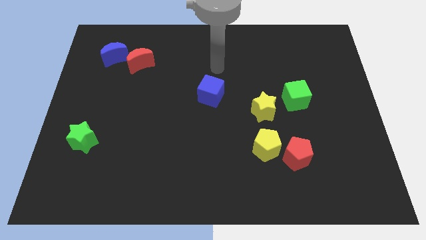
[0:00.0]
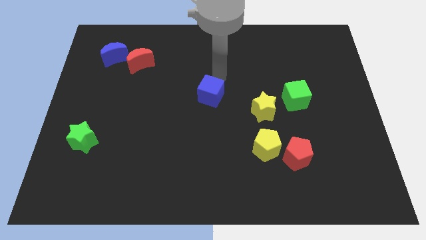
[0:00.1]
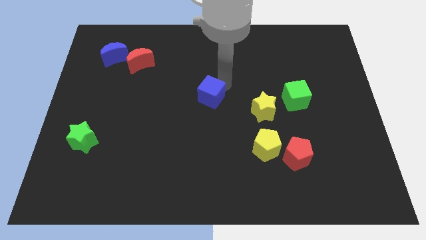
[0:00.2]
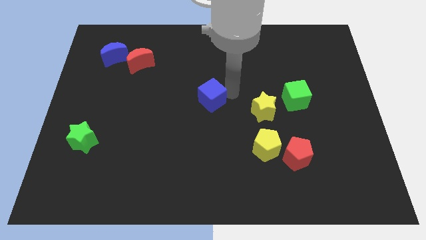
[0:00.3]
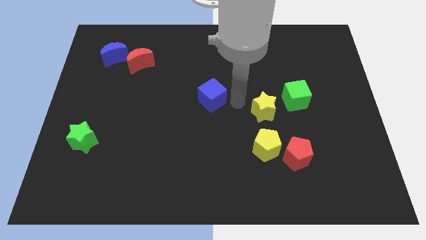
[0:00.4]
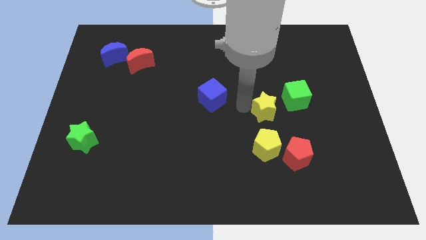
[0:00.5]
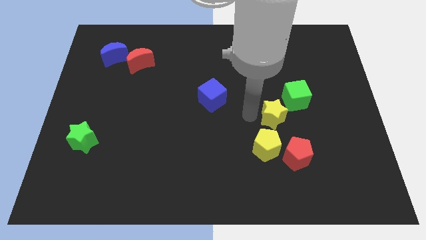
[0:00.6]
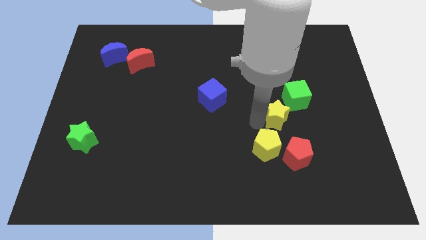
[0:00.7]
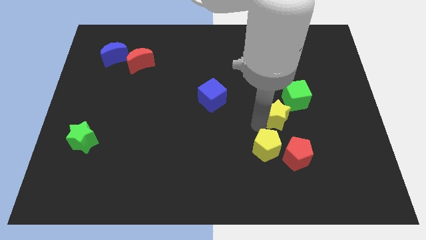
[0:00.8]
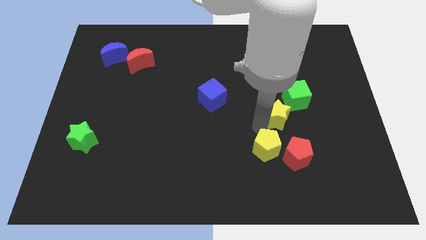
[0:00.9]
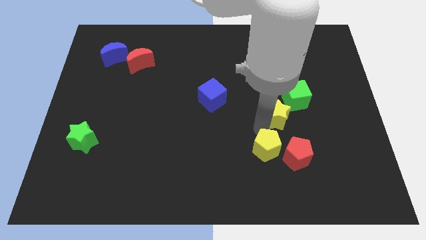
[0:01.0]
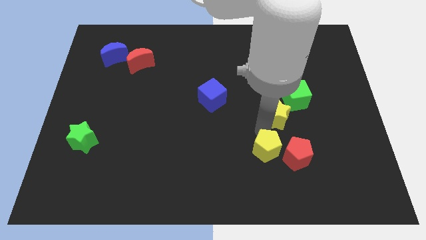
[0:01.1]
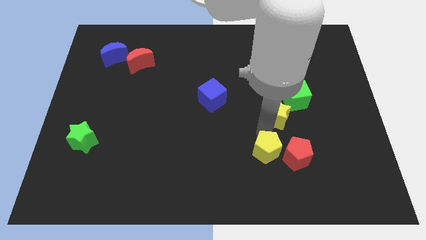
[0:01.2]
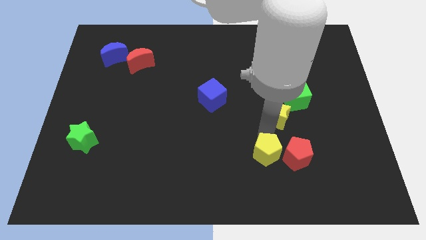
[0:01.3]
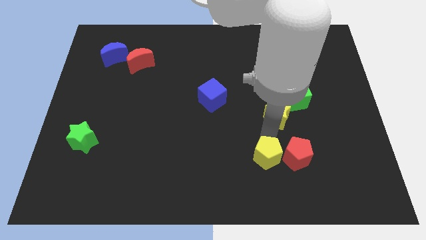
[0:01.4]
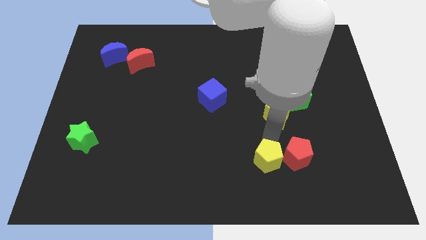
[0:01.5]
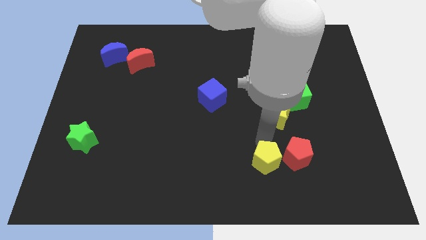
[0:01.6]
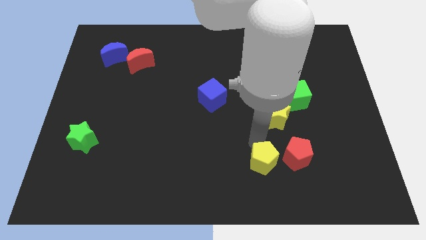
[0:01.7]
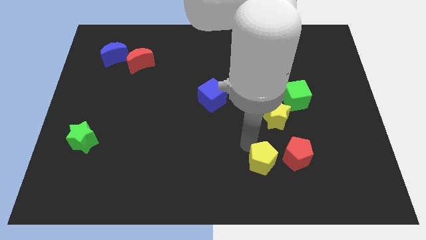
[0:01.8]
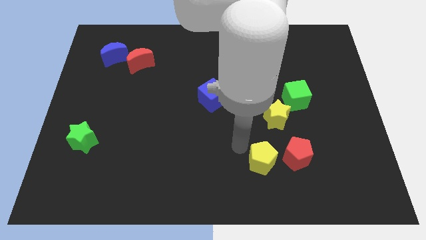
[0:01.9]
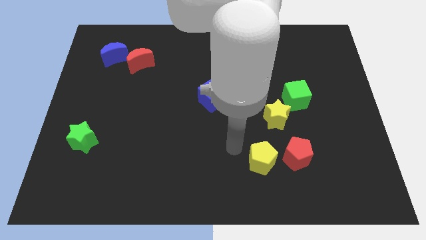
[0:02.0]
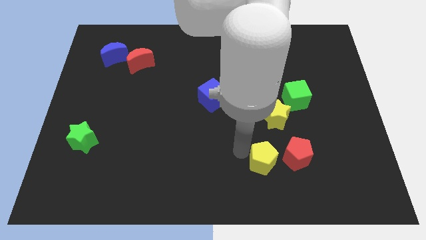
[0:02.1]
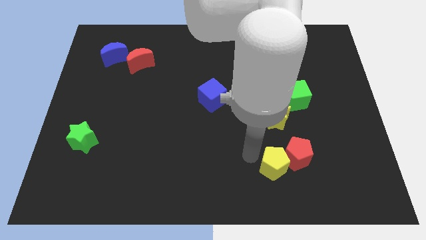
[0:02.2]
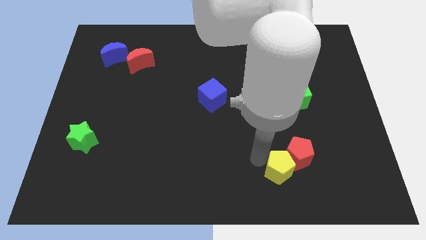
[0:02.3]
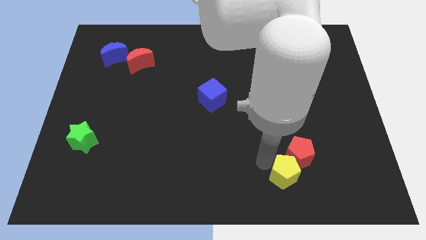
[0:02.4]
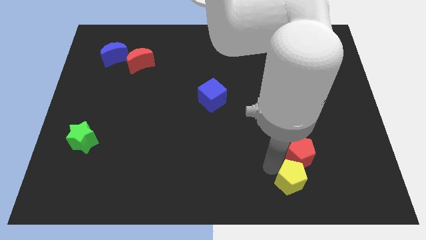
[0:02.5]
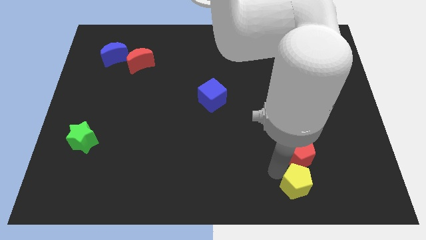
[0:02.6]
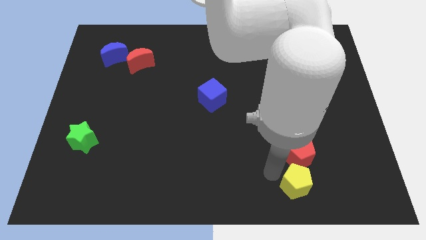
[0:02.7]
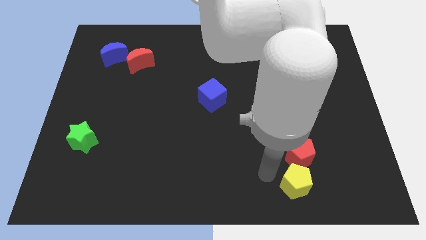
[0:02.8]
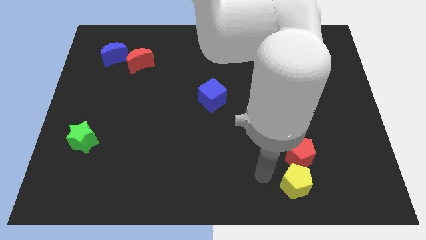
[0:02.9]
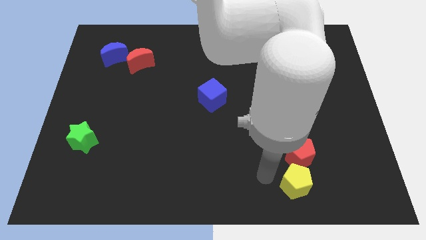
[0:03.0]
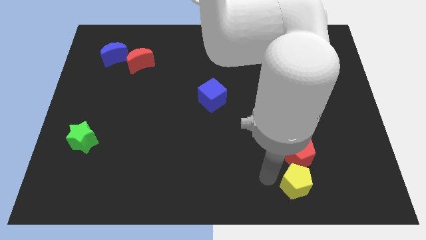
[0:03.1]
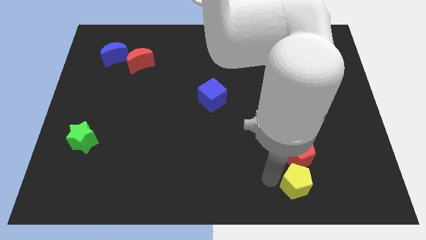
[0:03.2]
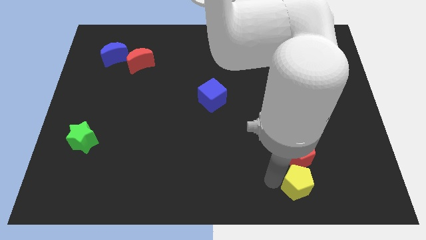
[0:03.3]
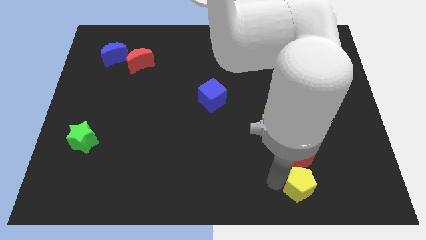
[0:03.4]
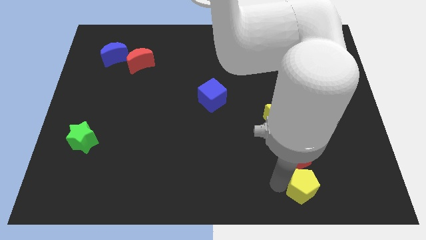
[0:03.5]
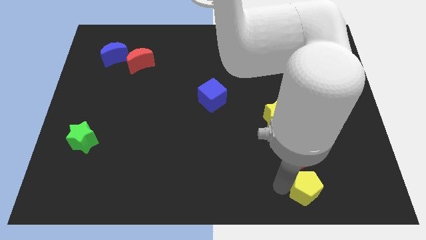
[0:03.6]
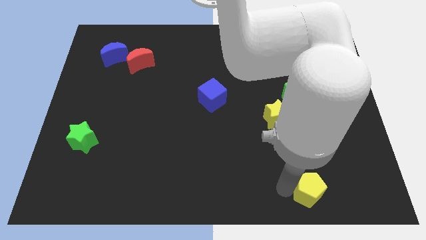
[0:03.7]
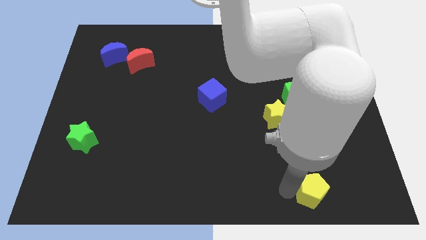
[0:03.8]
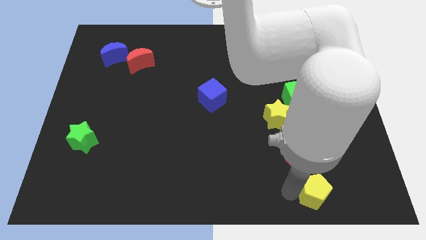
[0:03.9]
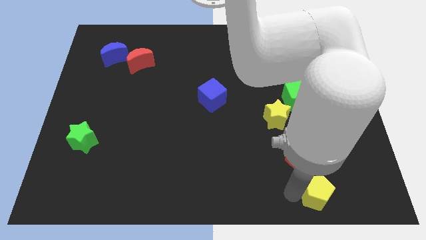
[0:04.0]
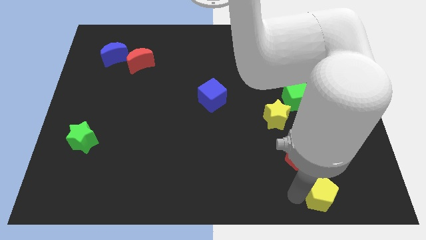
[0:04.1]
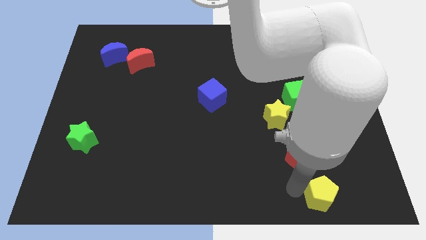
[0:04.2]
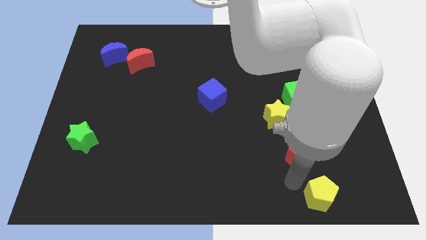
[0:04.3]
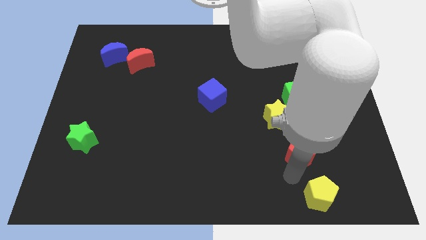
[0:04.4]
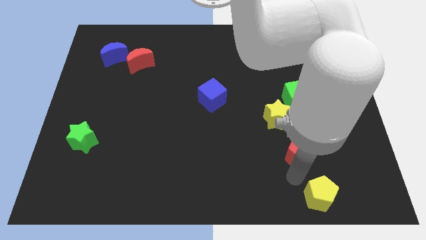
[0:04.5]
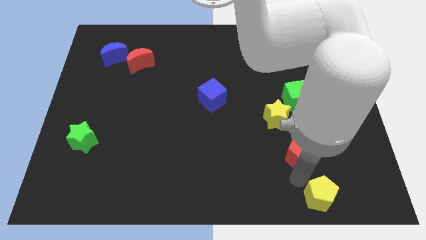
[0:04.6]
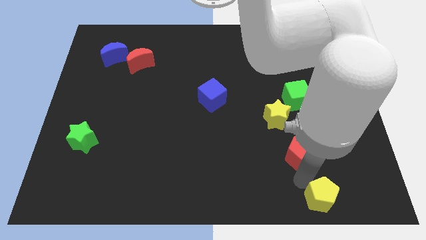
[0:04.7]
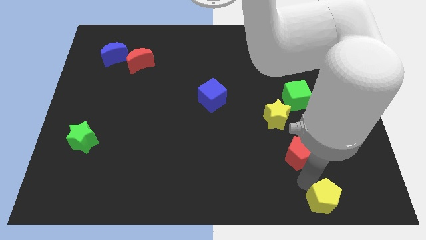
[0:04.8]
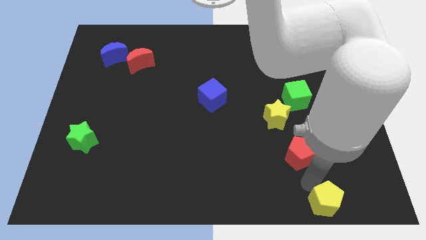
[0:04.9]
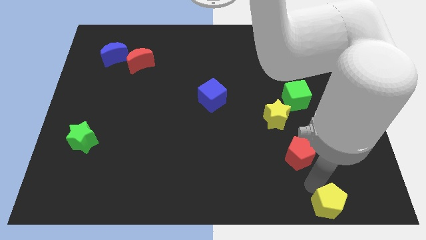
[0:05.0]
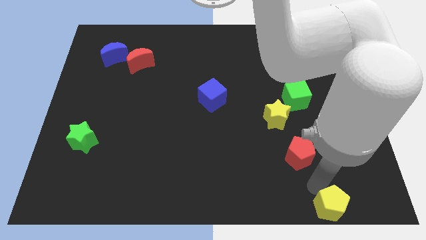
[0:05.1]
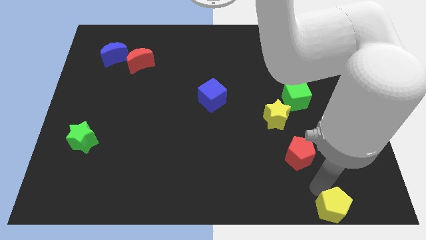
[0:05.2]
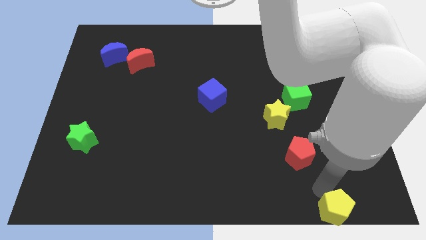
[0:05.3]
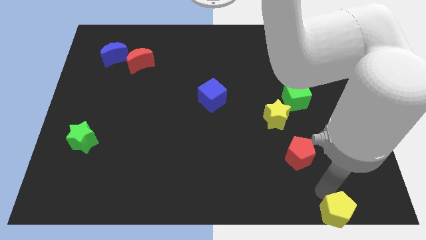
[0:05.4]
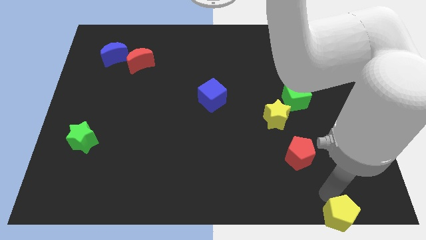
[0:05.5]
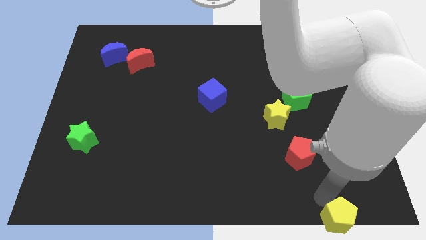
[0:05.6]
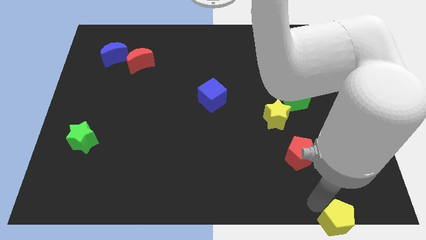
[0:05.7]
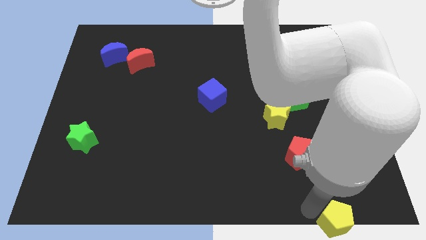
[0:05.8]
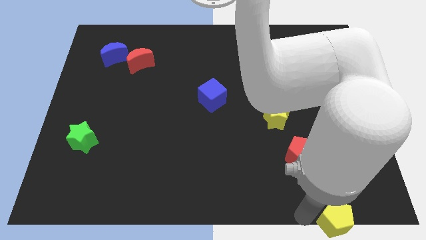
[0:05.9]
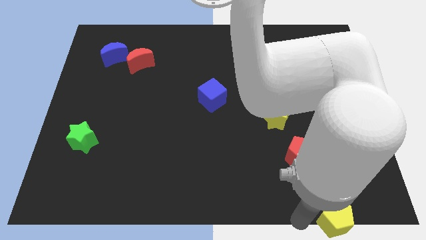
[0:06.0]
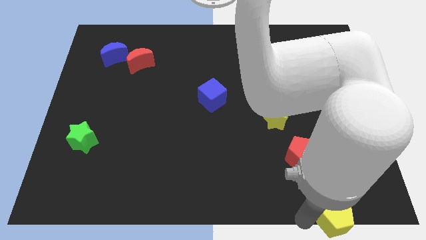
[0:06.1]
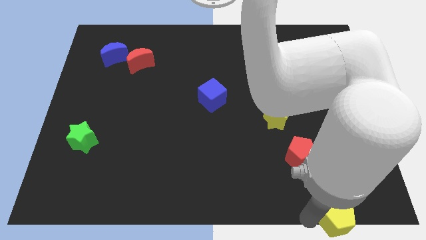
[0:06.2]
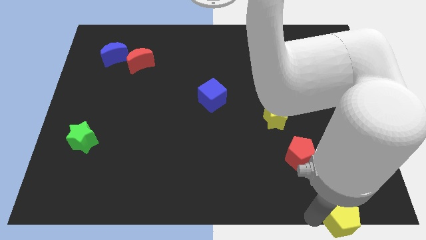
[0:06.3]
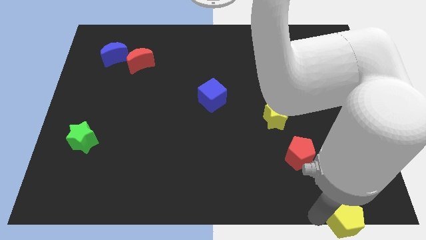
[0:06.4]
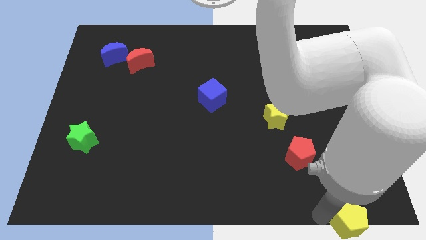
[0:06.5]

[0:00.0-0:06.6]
slide the yellow pentagon to the bottom right
